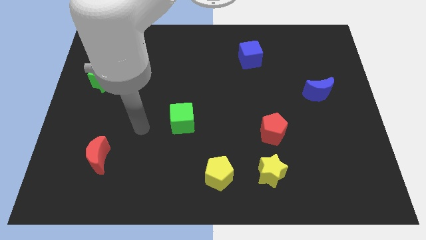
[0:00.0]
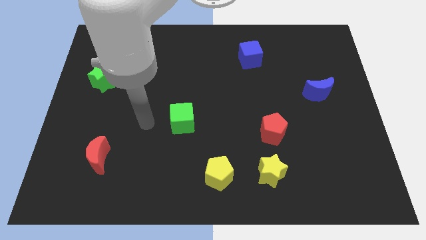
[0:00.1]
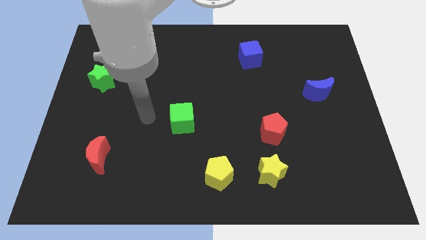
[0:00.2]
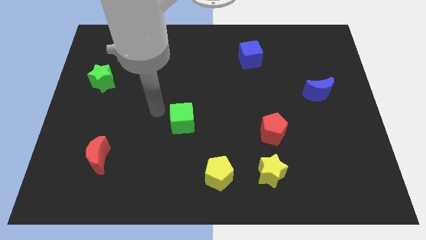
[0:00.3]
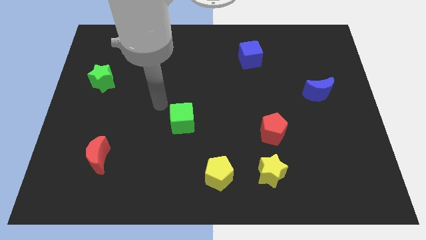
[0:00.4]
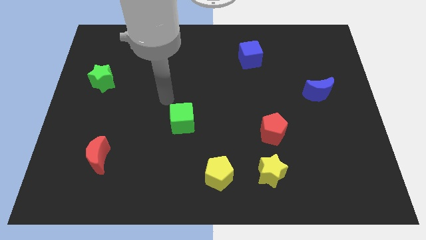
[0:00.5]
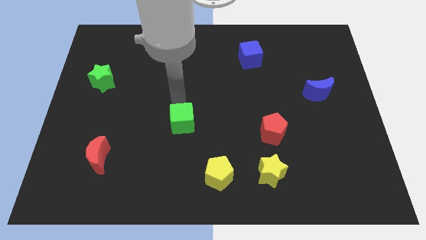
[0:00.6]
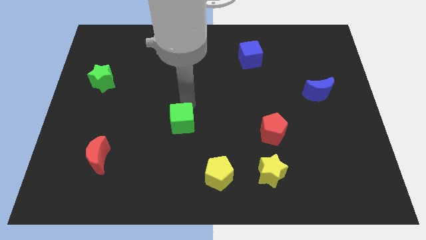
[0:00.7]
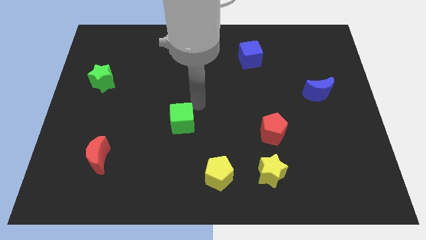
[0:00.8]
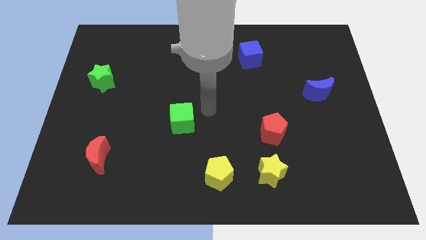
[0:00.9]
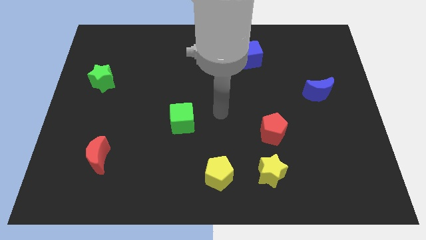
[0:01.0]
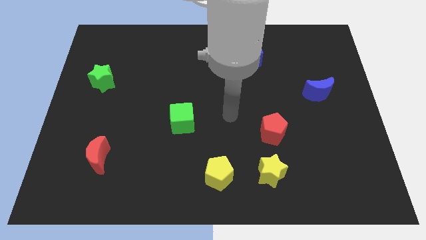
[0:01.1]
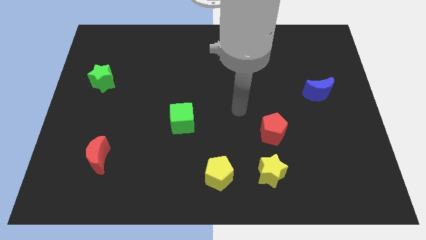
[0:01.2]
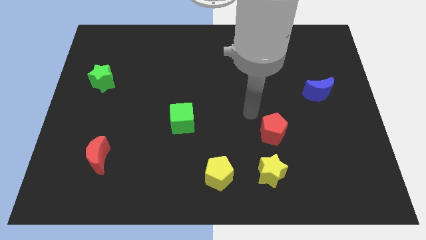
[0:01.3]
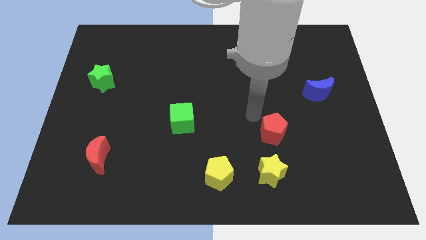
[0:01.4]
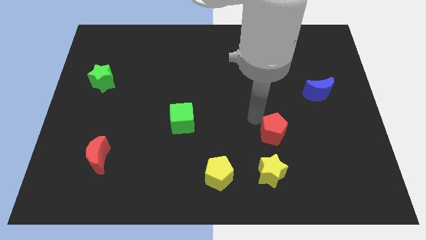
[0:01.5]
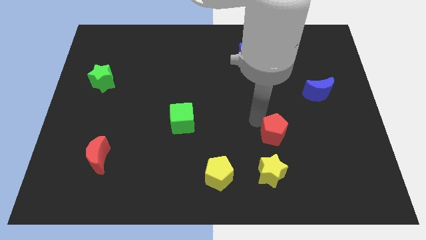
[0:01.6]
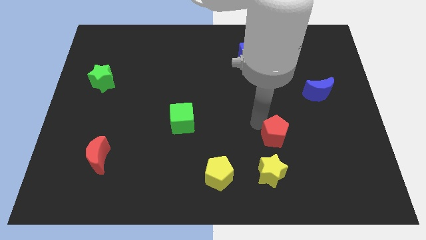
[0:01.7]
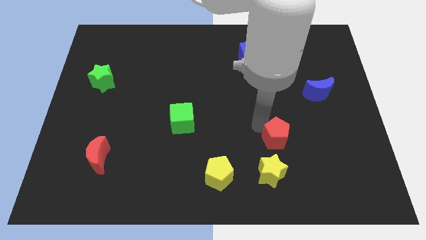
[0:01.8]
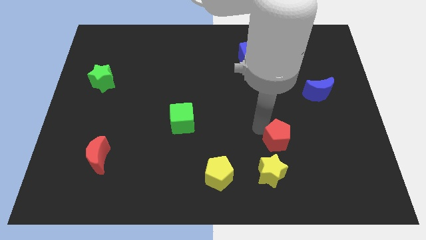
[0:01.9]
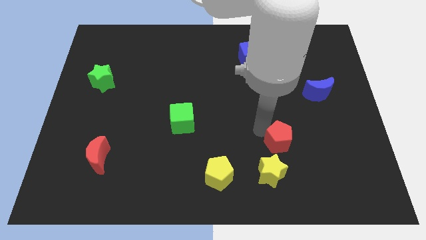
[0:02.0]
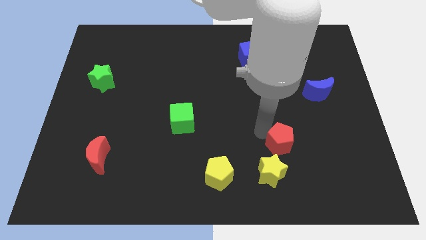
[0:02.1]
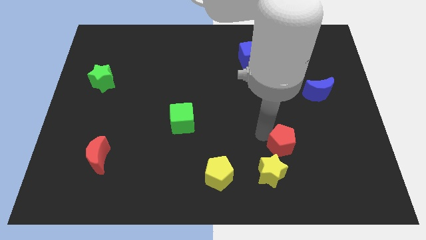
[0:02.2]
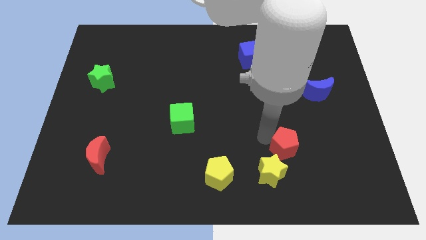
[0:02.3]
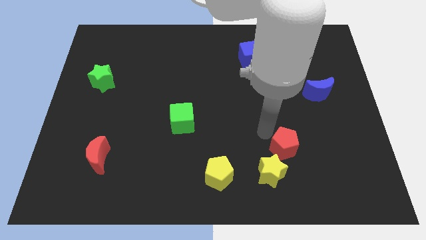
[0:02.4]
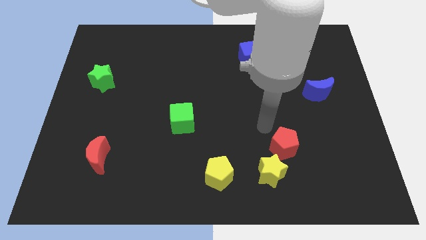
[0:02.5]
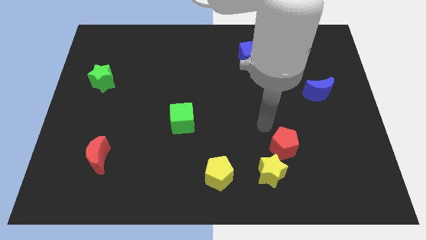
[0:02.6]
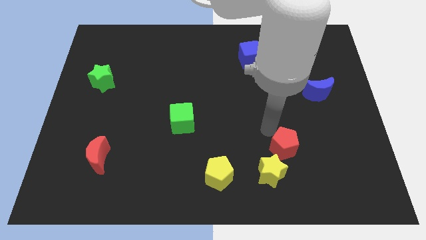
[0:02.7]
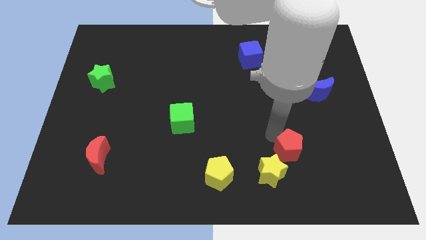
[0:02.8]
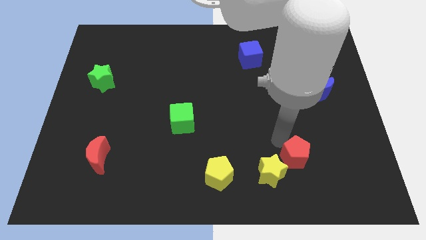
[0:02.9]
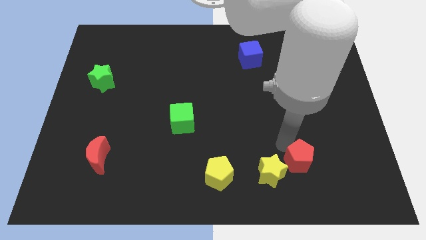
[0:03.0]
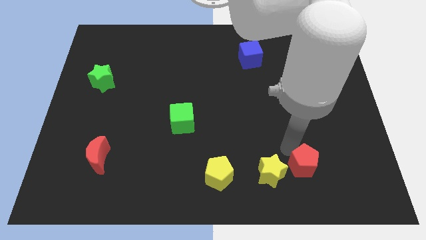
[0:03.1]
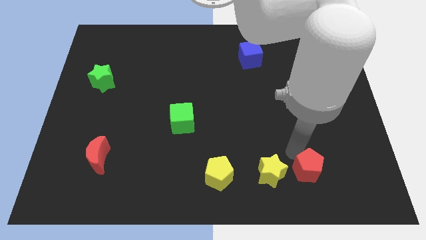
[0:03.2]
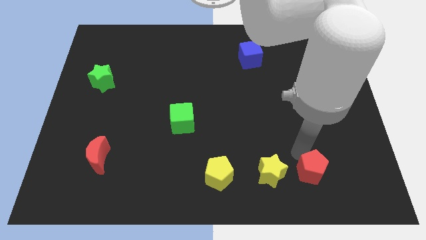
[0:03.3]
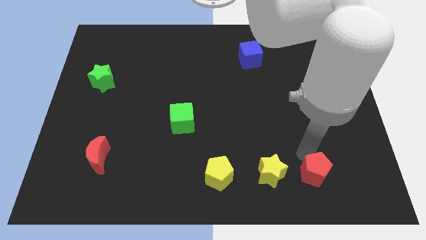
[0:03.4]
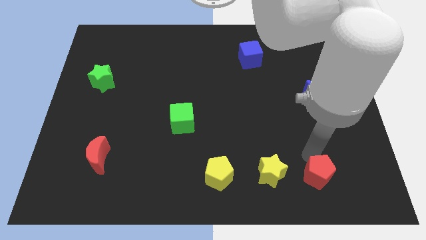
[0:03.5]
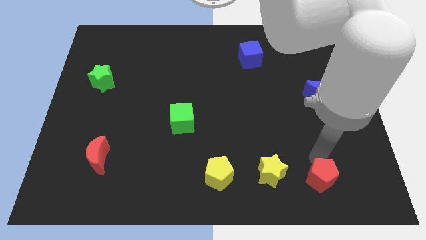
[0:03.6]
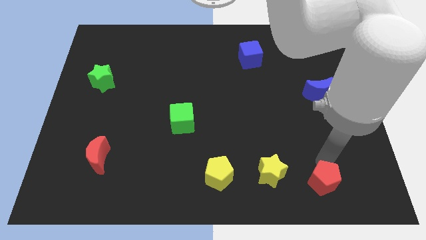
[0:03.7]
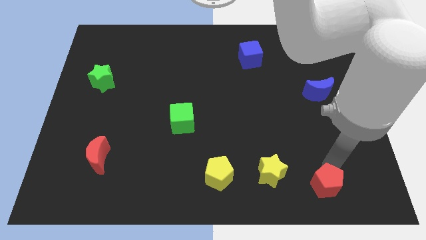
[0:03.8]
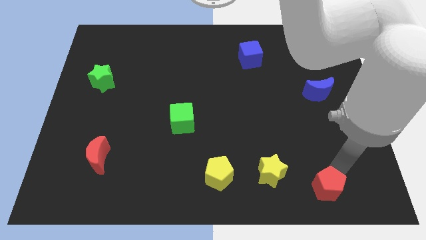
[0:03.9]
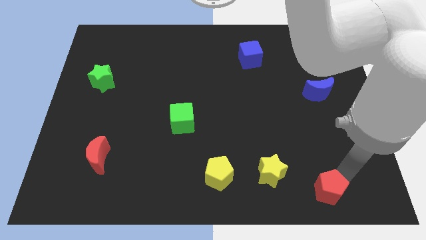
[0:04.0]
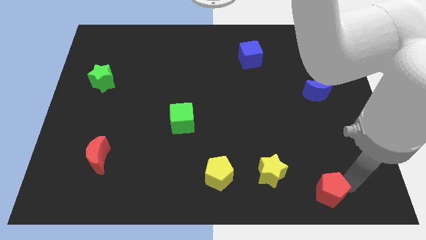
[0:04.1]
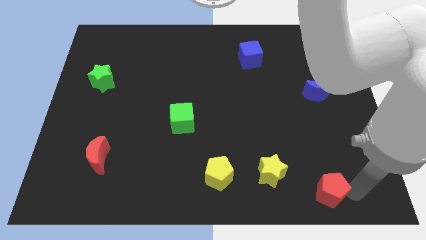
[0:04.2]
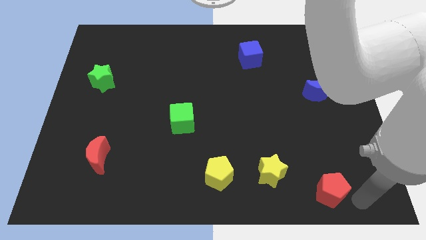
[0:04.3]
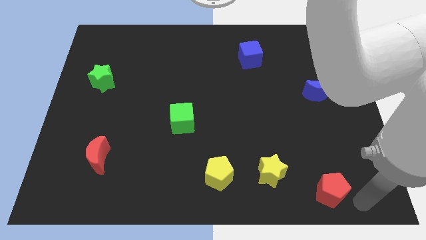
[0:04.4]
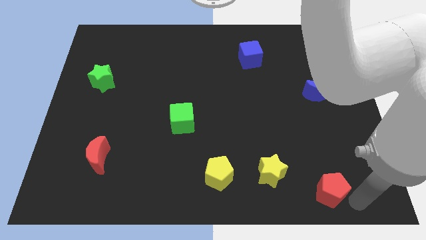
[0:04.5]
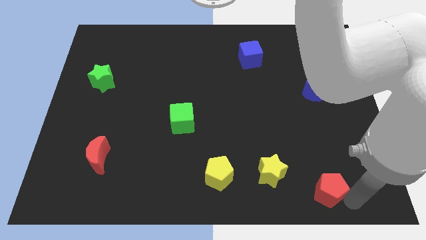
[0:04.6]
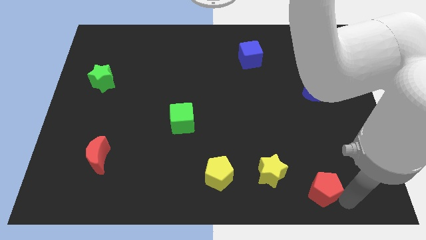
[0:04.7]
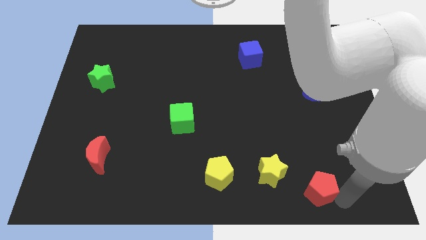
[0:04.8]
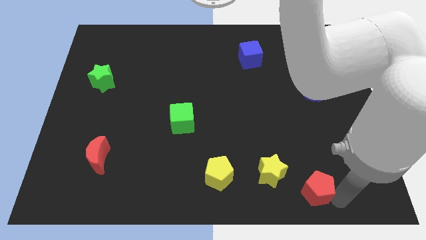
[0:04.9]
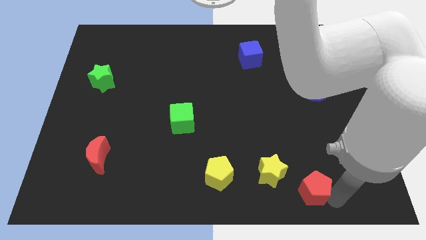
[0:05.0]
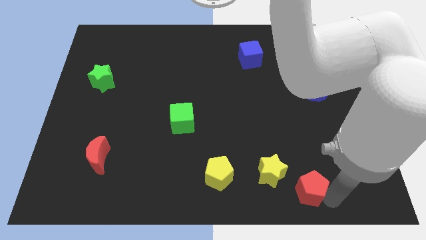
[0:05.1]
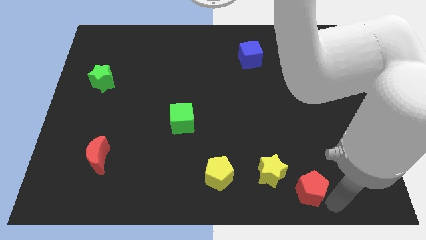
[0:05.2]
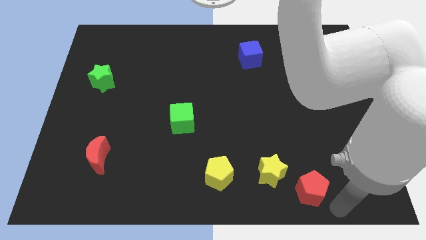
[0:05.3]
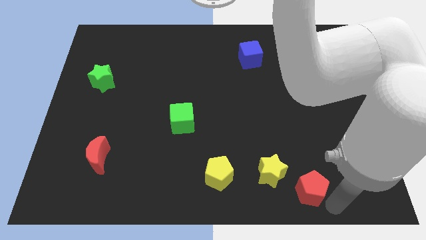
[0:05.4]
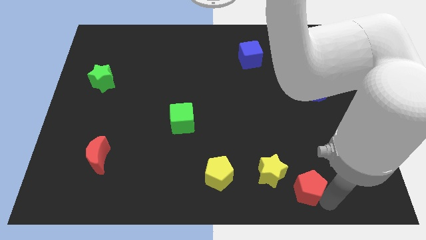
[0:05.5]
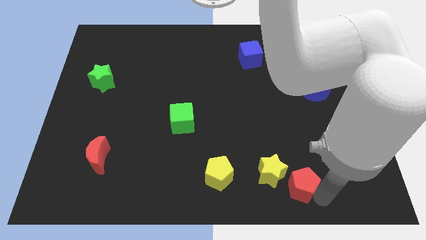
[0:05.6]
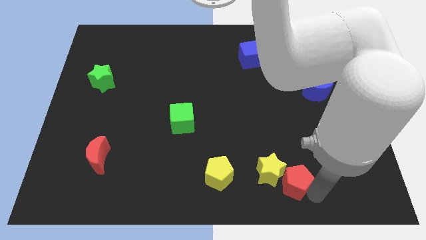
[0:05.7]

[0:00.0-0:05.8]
slide the red pentagon just right of the yellow pentagon

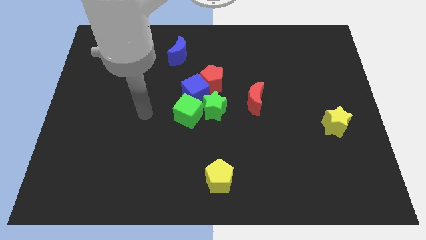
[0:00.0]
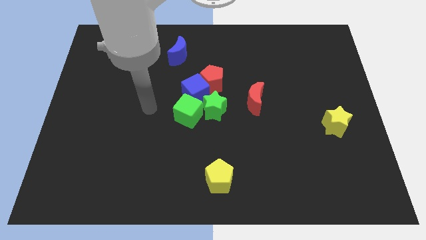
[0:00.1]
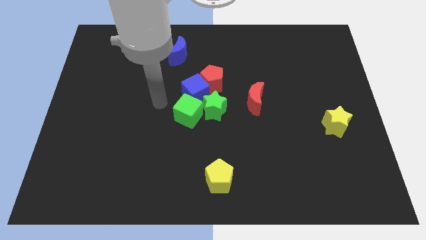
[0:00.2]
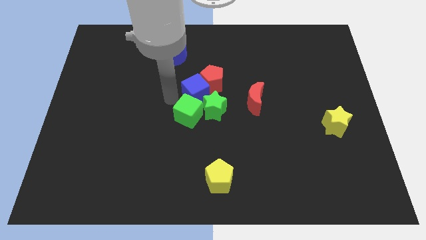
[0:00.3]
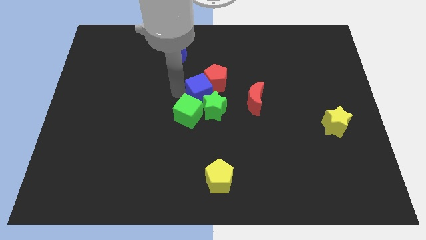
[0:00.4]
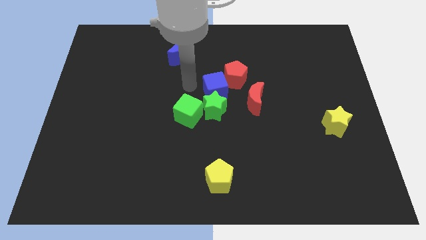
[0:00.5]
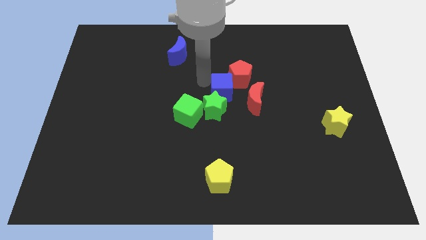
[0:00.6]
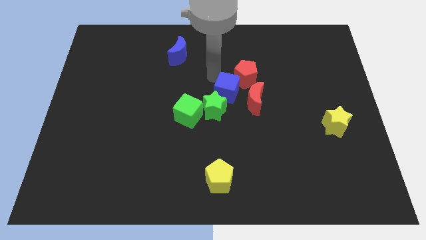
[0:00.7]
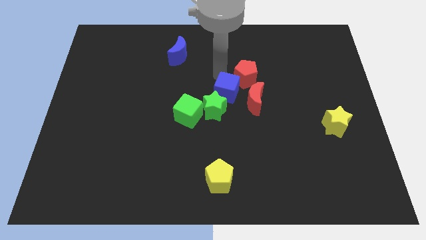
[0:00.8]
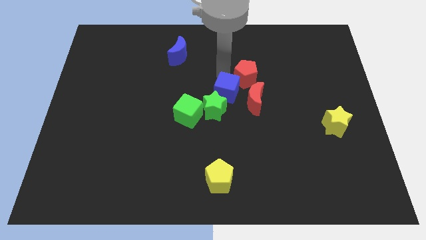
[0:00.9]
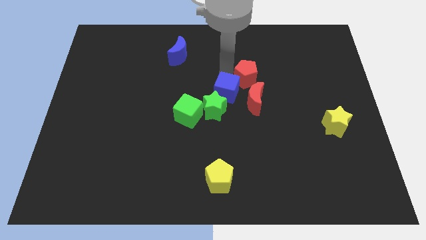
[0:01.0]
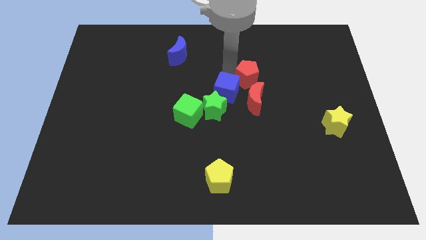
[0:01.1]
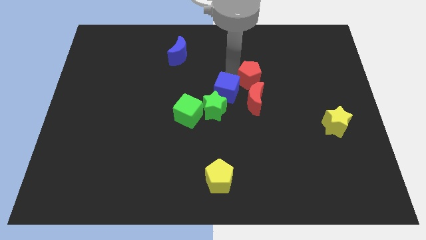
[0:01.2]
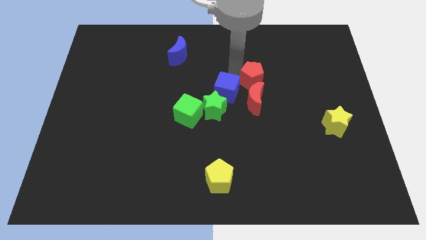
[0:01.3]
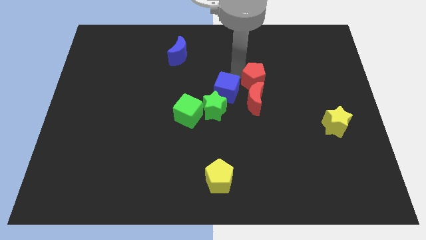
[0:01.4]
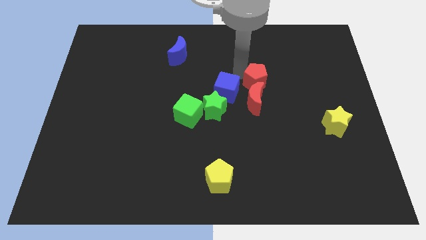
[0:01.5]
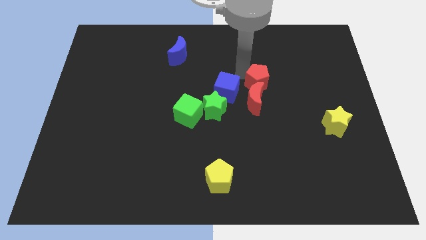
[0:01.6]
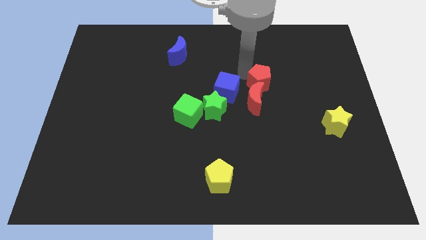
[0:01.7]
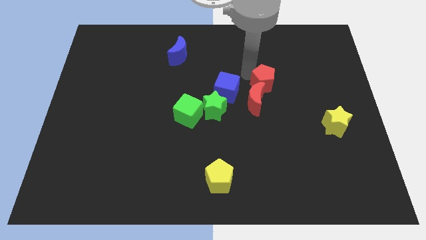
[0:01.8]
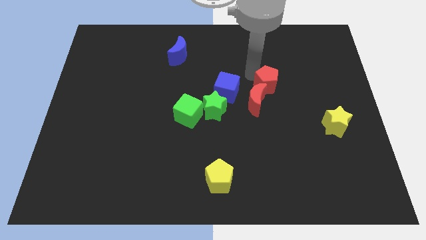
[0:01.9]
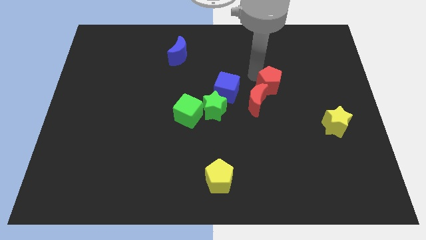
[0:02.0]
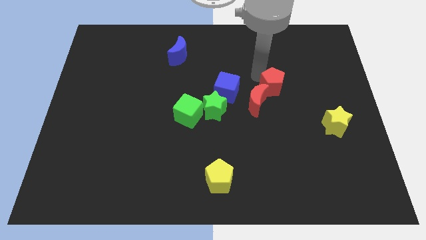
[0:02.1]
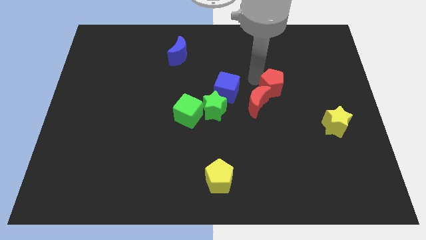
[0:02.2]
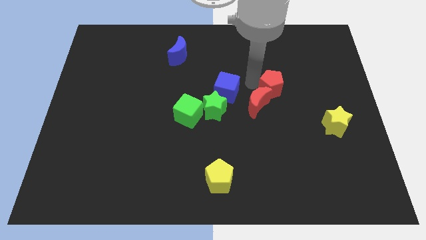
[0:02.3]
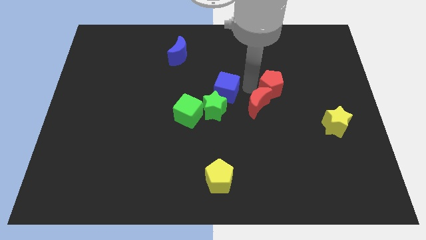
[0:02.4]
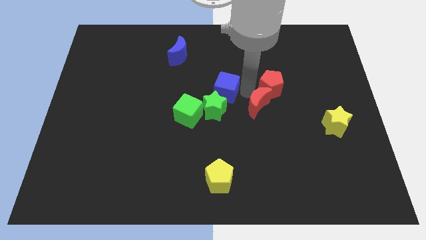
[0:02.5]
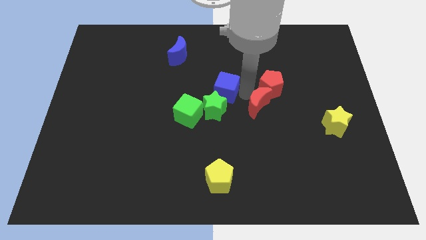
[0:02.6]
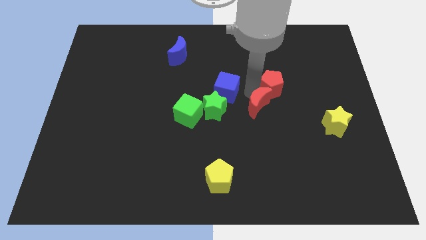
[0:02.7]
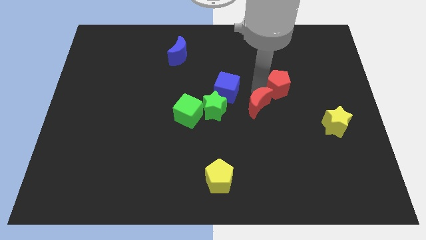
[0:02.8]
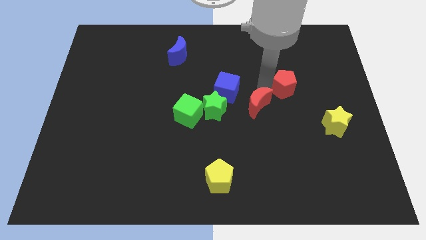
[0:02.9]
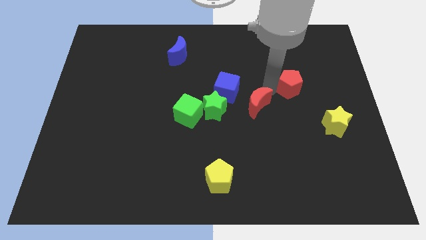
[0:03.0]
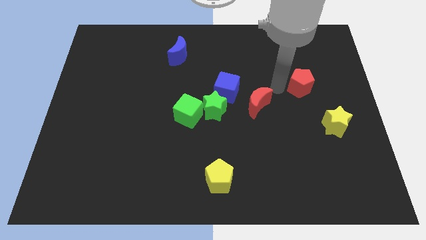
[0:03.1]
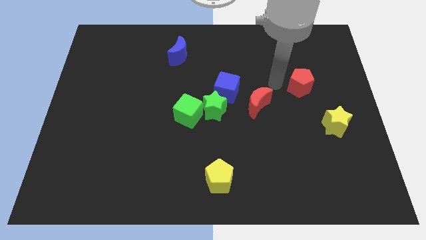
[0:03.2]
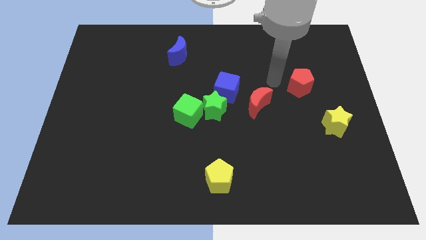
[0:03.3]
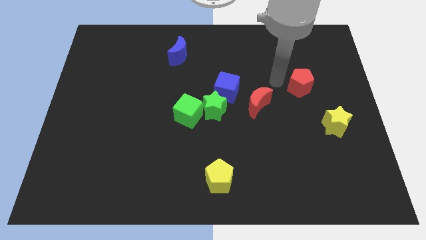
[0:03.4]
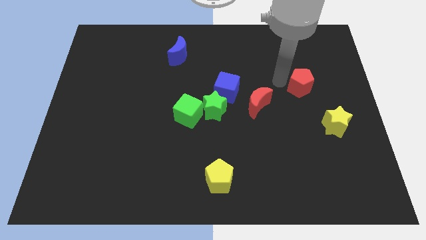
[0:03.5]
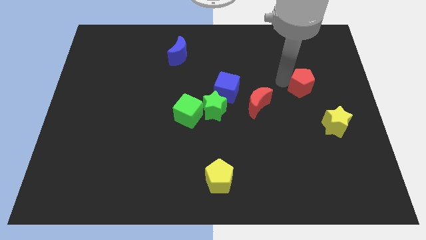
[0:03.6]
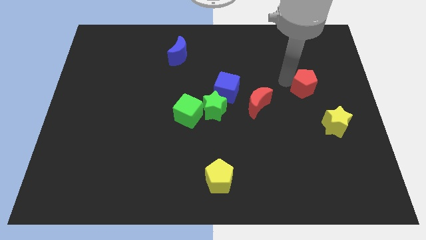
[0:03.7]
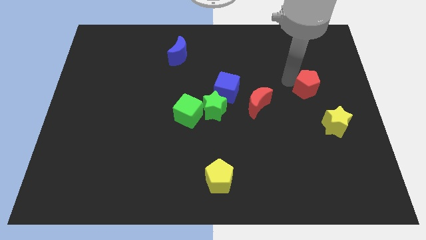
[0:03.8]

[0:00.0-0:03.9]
put the red pentagon to the top of the yellow star
